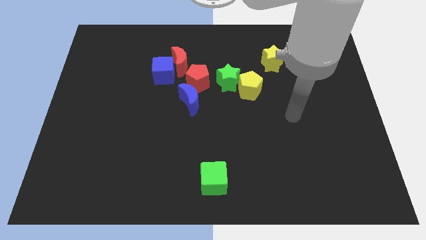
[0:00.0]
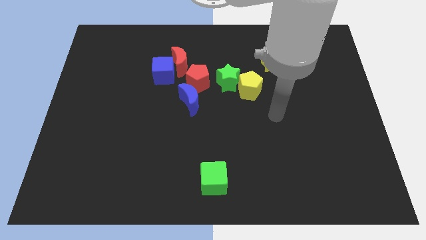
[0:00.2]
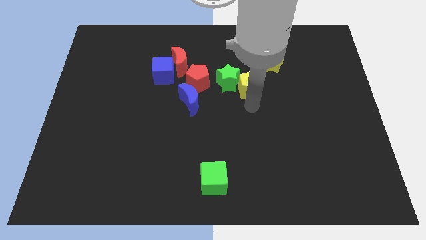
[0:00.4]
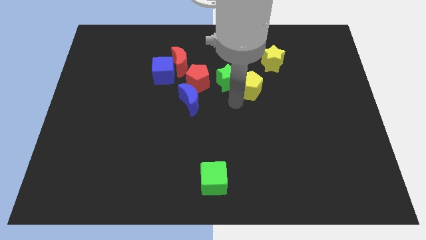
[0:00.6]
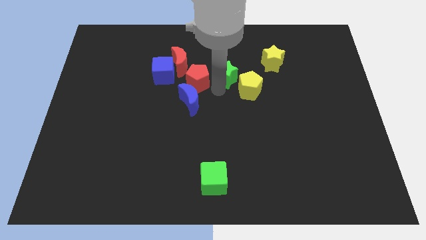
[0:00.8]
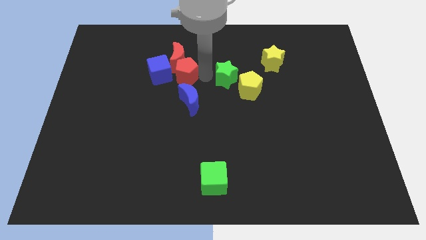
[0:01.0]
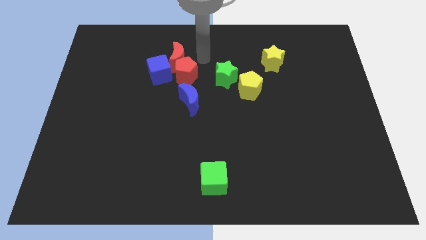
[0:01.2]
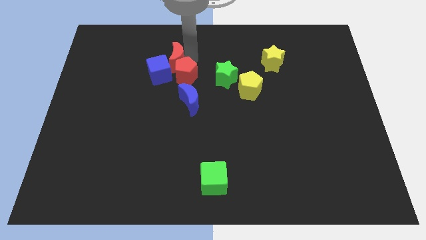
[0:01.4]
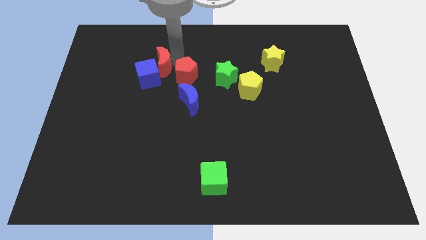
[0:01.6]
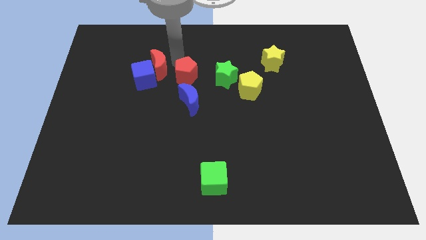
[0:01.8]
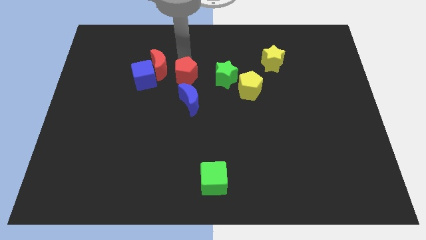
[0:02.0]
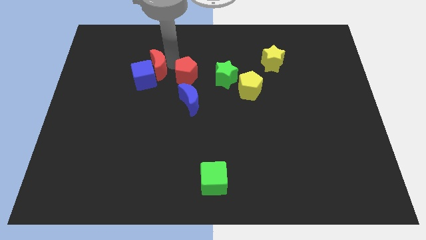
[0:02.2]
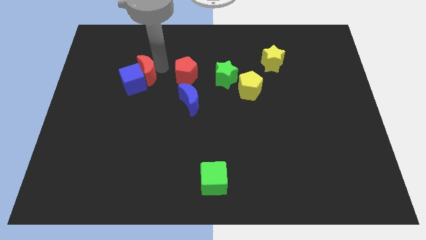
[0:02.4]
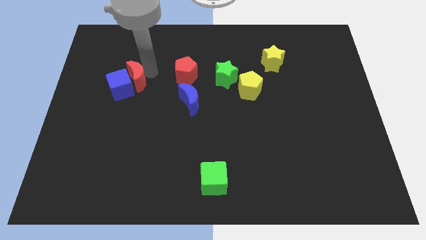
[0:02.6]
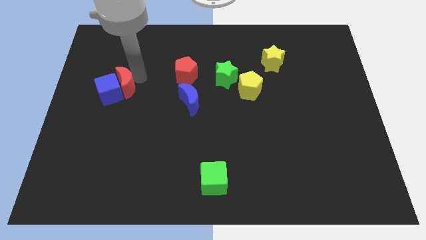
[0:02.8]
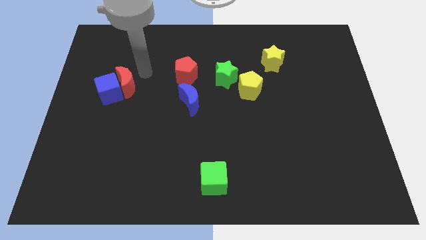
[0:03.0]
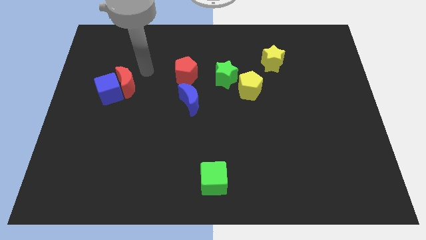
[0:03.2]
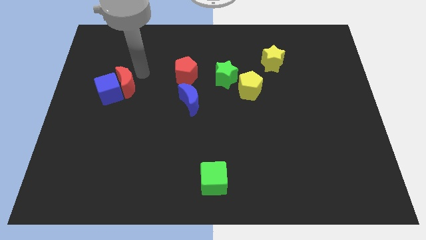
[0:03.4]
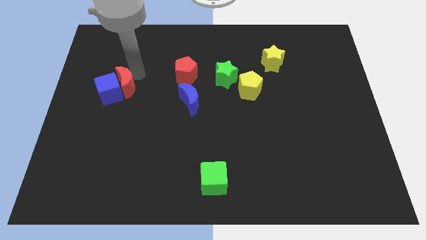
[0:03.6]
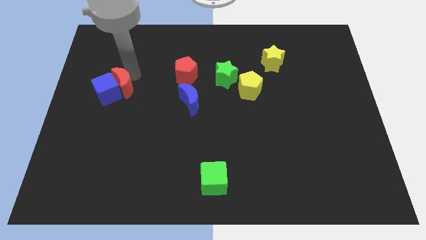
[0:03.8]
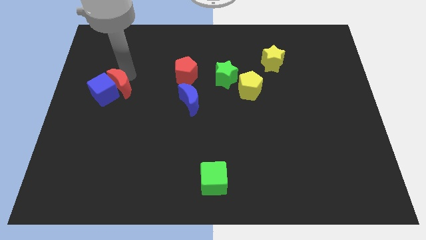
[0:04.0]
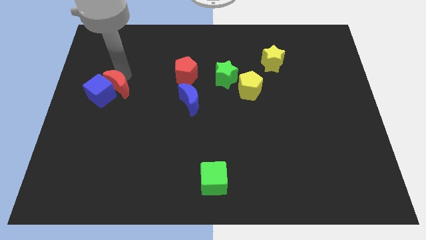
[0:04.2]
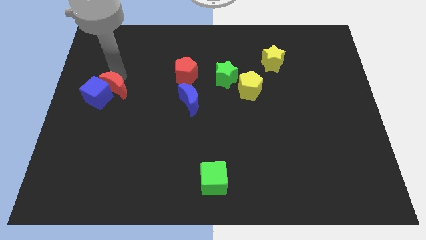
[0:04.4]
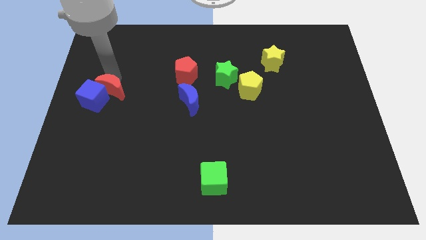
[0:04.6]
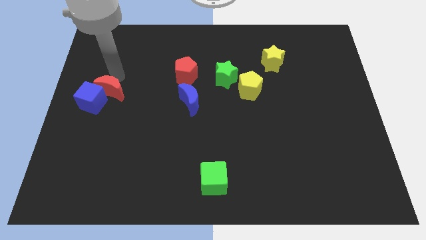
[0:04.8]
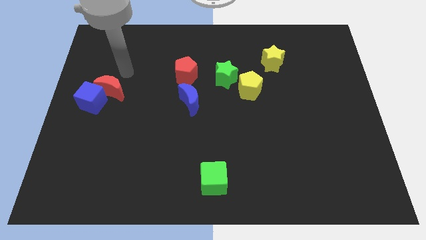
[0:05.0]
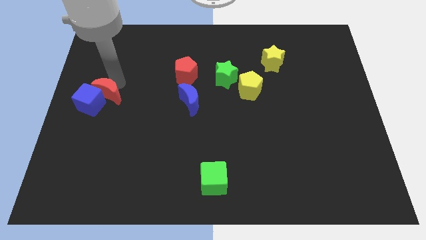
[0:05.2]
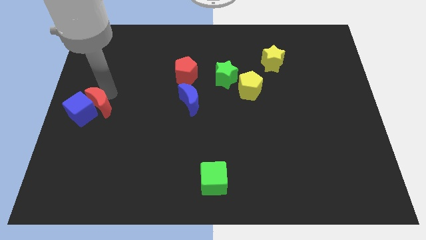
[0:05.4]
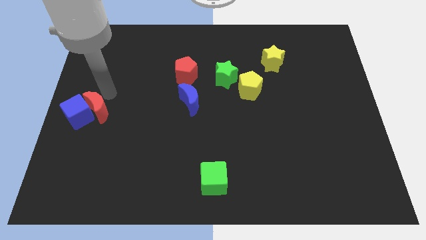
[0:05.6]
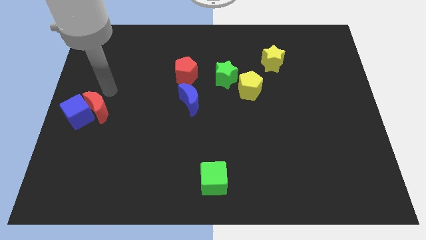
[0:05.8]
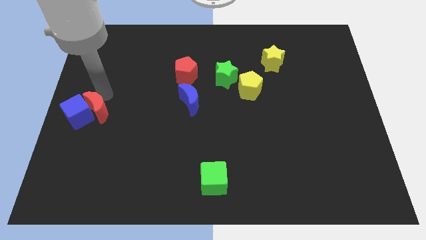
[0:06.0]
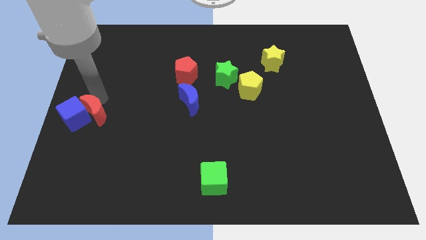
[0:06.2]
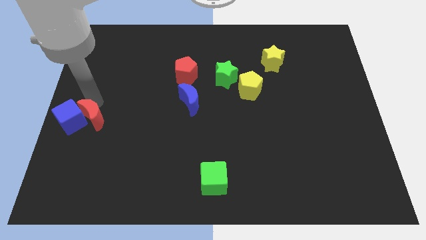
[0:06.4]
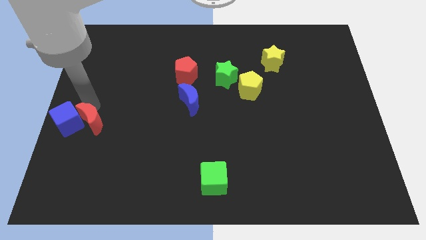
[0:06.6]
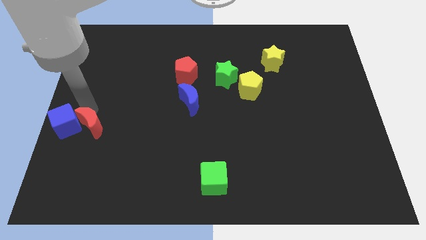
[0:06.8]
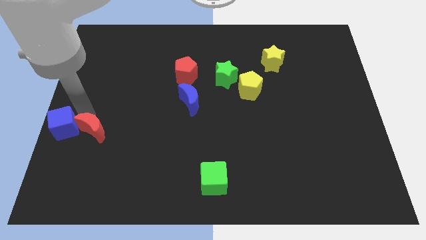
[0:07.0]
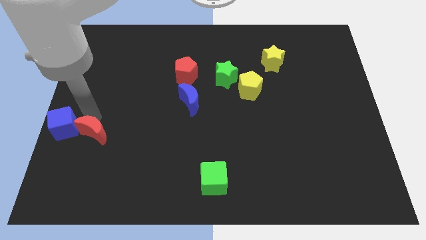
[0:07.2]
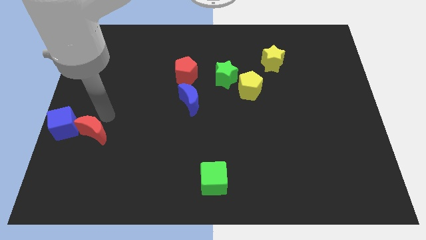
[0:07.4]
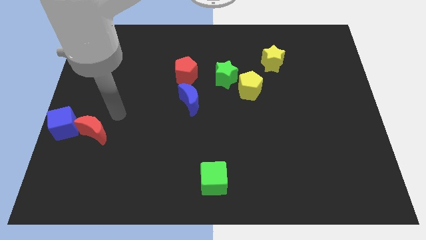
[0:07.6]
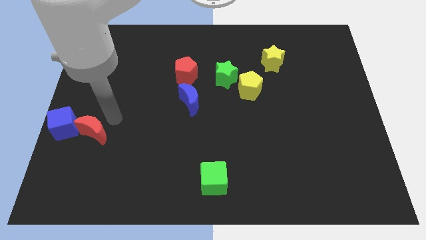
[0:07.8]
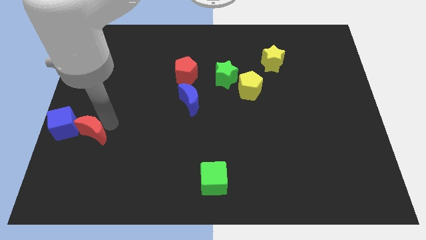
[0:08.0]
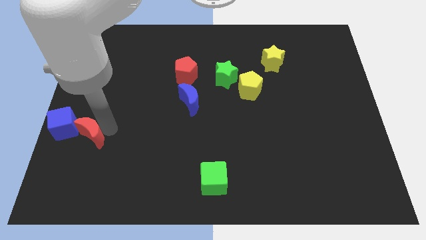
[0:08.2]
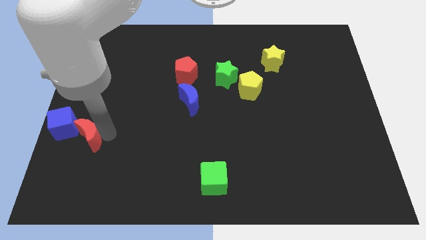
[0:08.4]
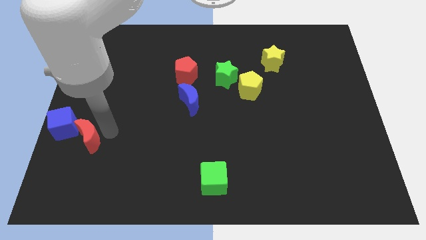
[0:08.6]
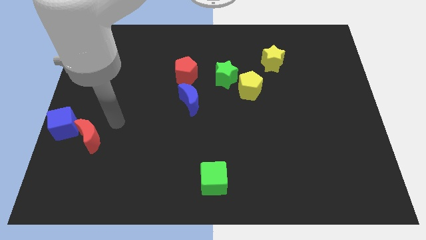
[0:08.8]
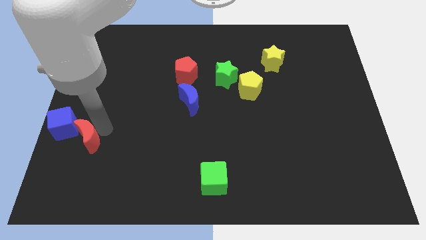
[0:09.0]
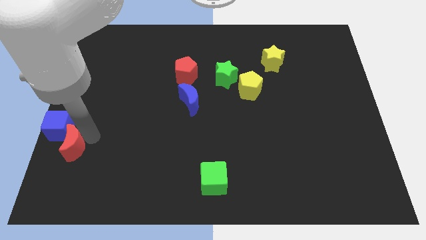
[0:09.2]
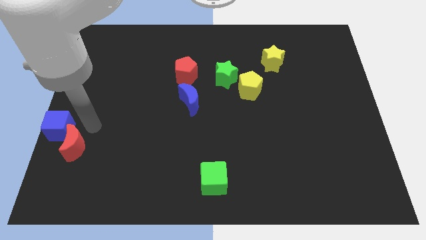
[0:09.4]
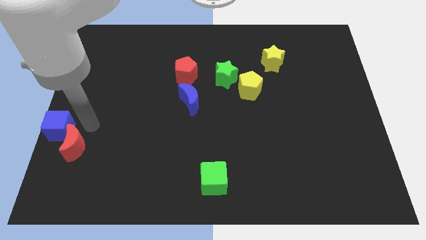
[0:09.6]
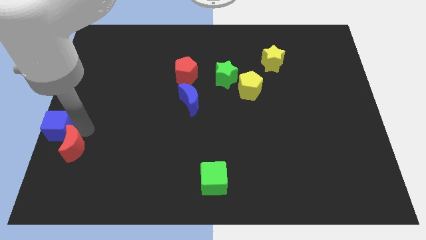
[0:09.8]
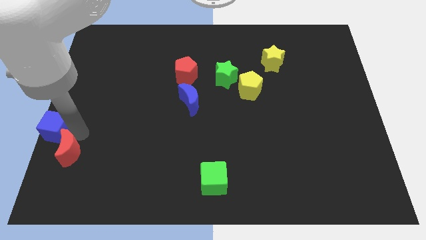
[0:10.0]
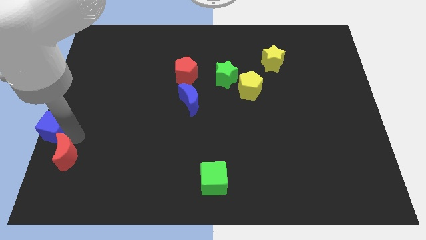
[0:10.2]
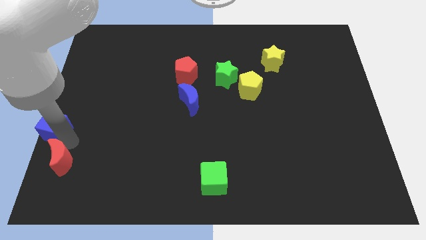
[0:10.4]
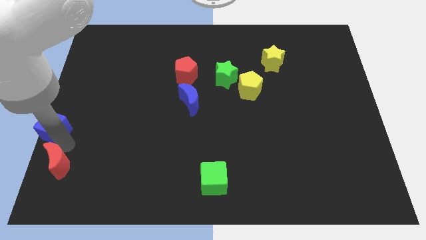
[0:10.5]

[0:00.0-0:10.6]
slide the red moon to the bottom left

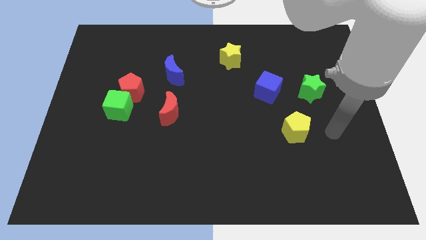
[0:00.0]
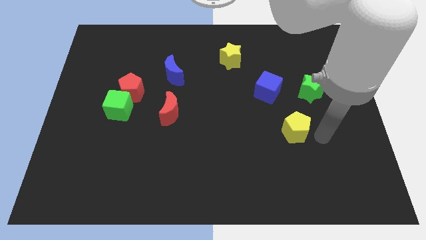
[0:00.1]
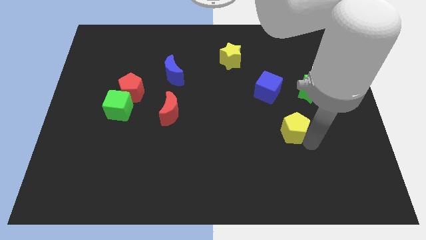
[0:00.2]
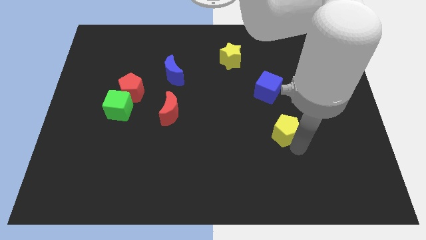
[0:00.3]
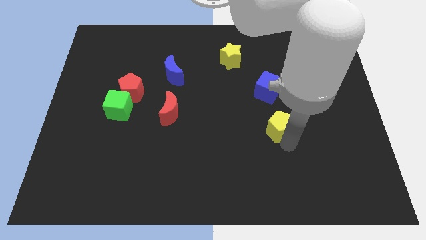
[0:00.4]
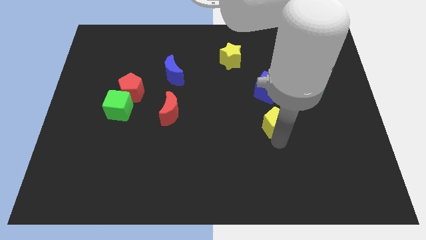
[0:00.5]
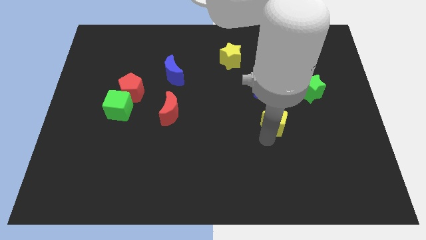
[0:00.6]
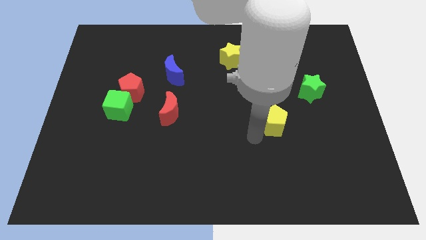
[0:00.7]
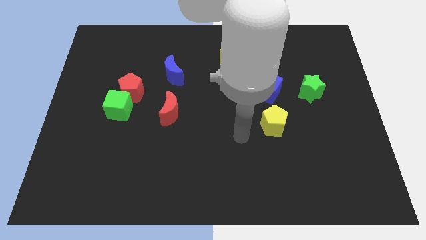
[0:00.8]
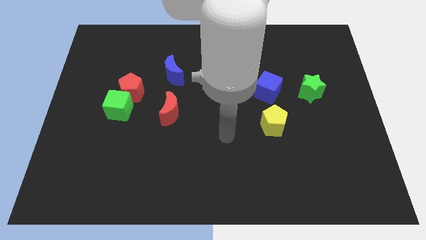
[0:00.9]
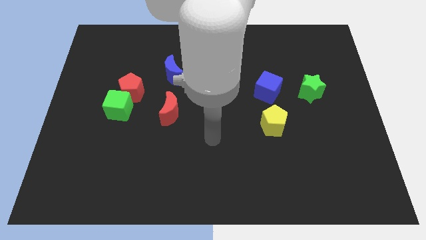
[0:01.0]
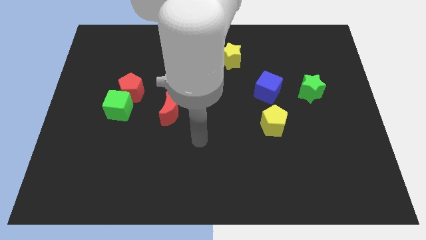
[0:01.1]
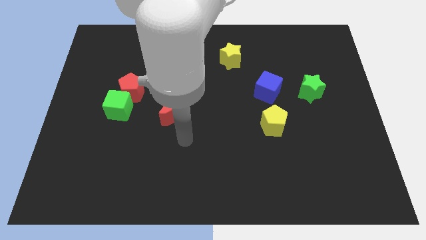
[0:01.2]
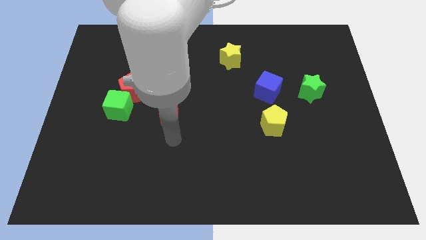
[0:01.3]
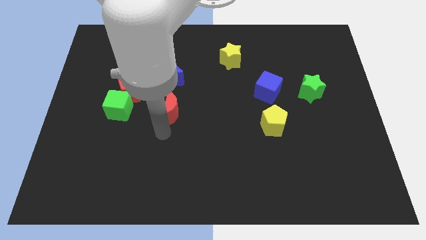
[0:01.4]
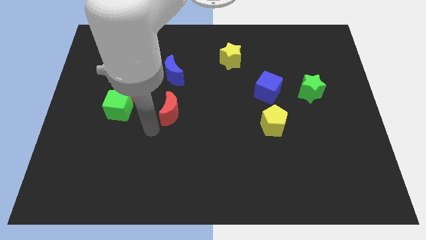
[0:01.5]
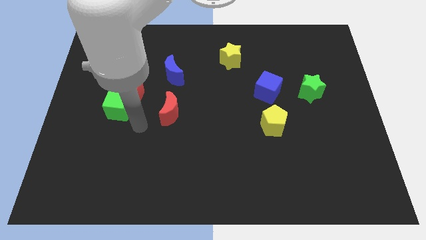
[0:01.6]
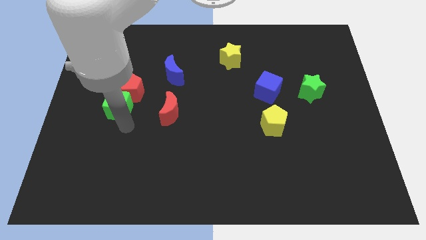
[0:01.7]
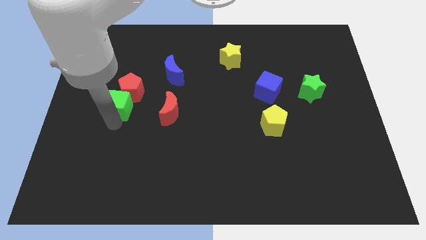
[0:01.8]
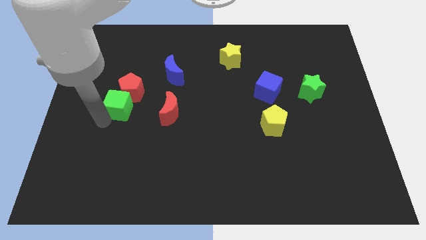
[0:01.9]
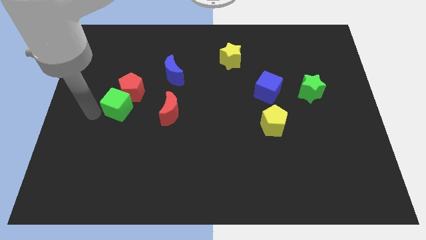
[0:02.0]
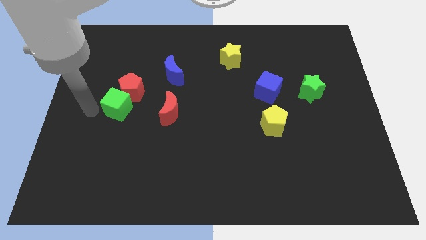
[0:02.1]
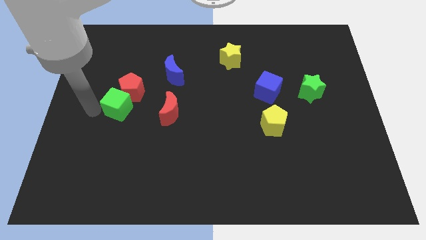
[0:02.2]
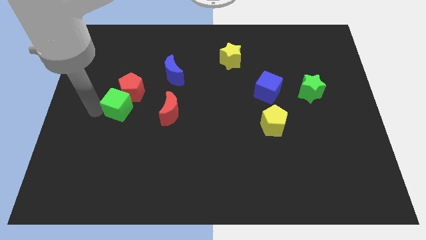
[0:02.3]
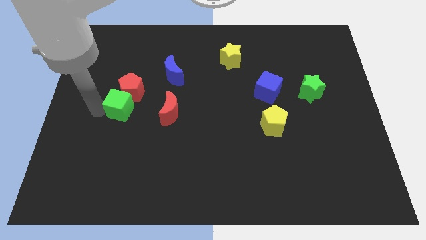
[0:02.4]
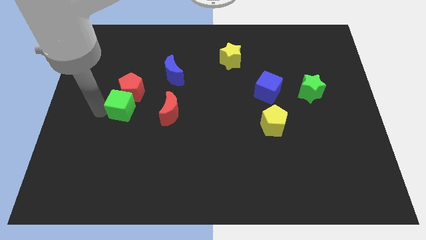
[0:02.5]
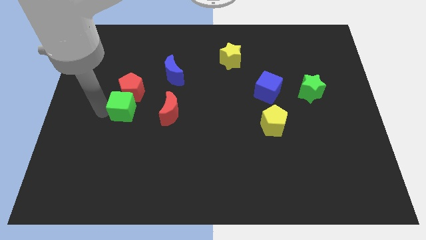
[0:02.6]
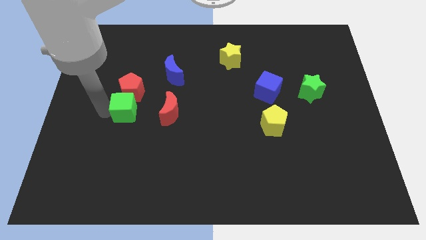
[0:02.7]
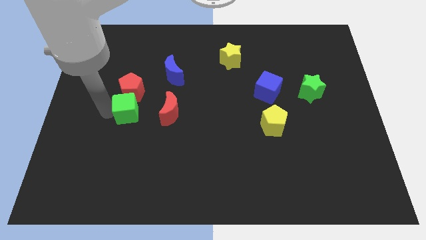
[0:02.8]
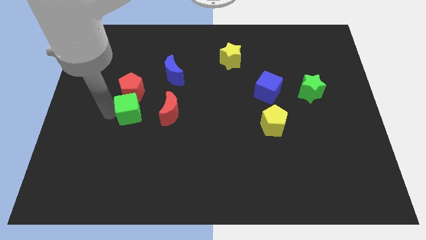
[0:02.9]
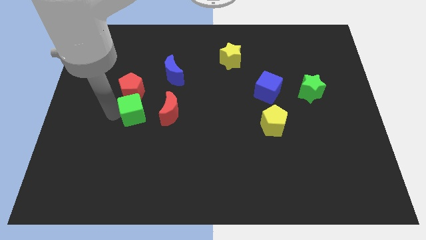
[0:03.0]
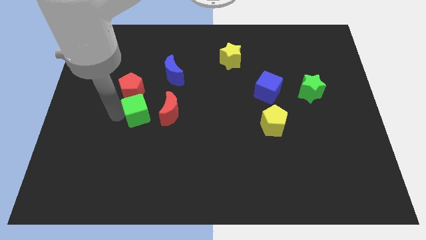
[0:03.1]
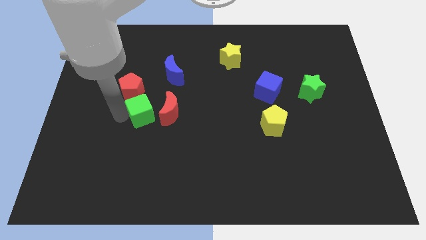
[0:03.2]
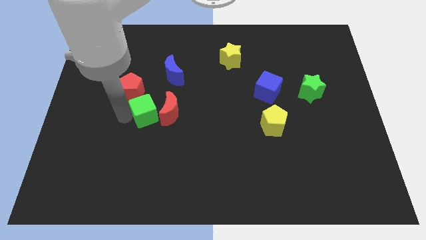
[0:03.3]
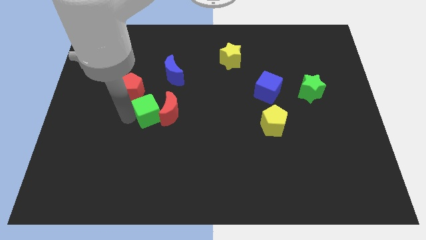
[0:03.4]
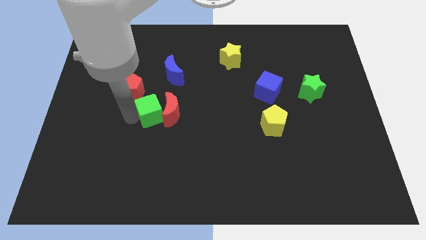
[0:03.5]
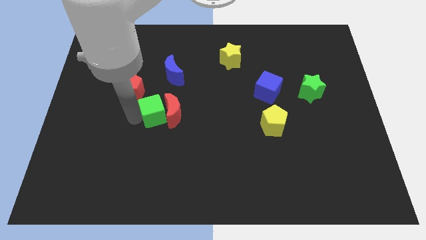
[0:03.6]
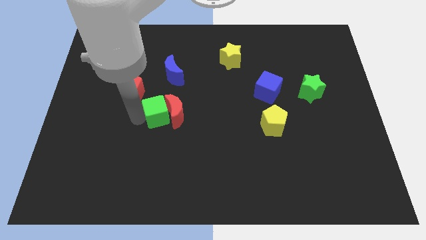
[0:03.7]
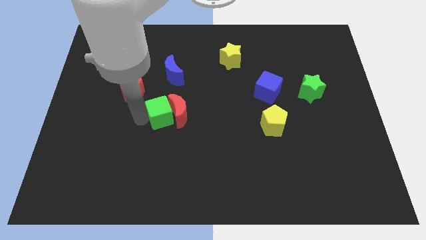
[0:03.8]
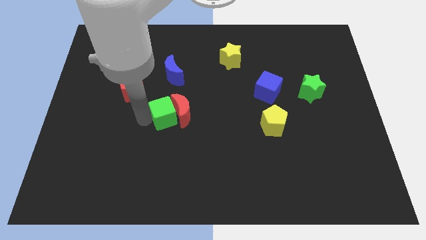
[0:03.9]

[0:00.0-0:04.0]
move the green cube to the middle
